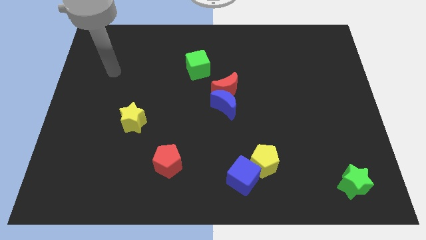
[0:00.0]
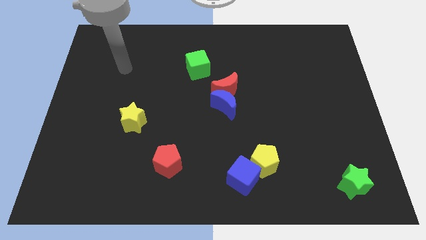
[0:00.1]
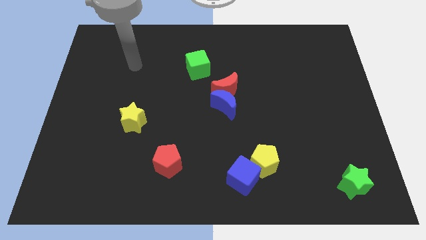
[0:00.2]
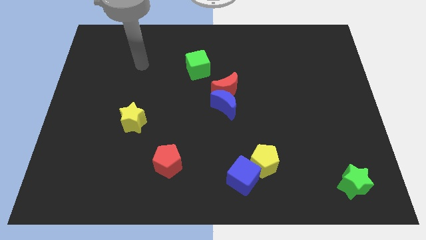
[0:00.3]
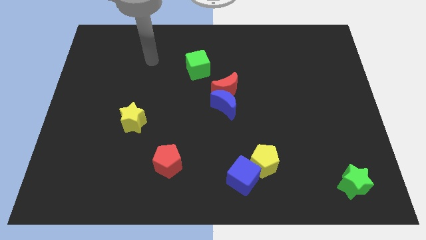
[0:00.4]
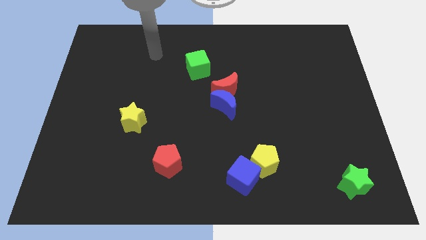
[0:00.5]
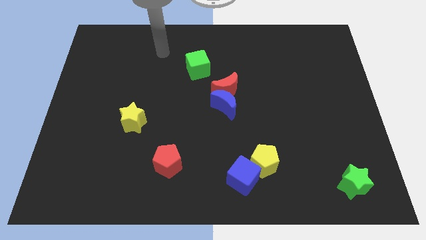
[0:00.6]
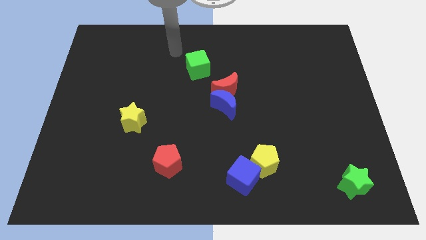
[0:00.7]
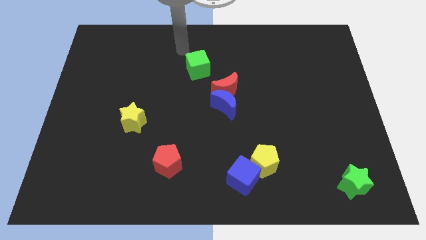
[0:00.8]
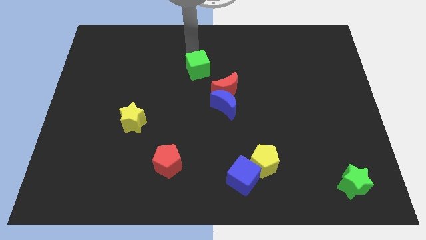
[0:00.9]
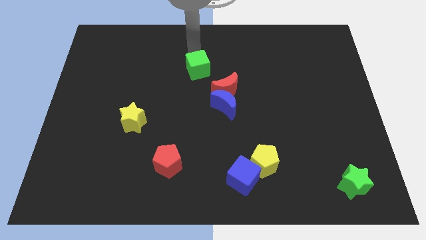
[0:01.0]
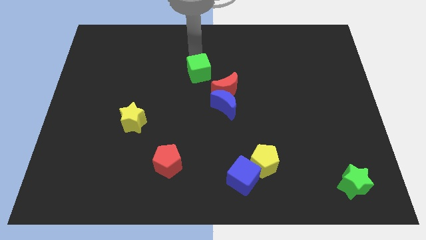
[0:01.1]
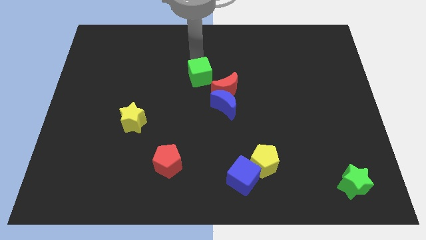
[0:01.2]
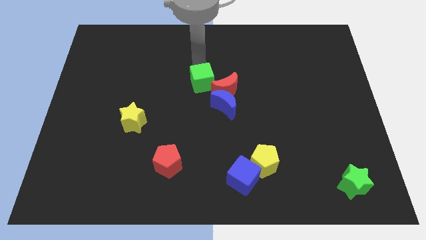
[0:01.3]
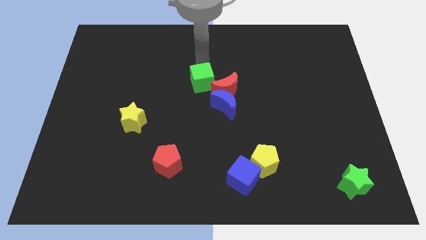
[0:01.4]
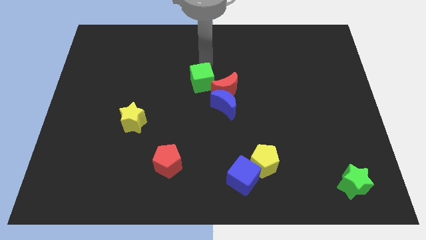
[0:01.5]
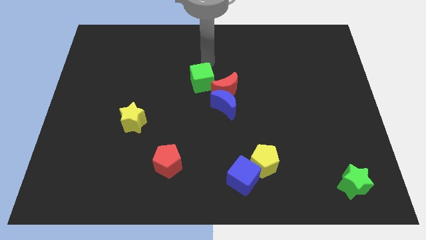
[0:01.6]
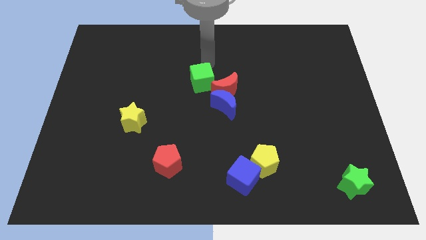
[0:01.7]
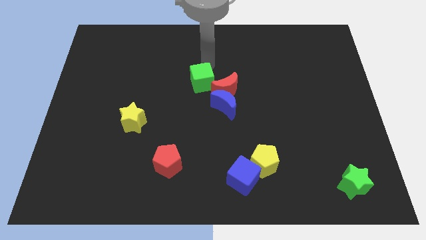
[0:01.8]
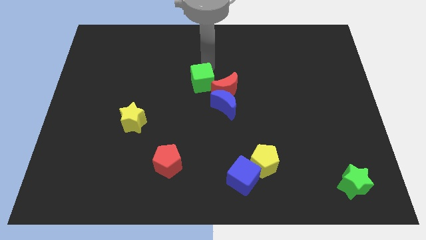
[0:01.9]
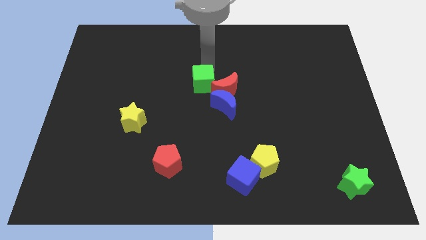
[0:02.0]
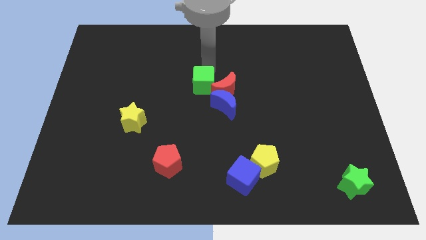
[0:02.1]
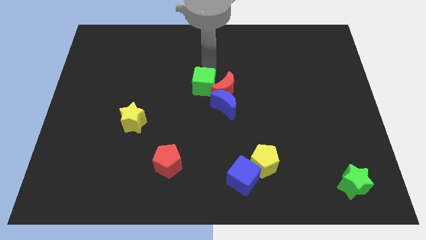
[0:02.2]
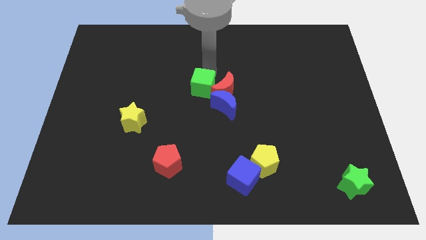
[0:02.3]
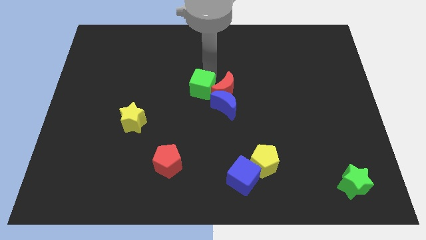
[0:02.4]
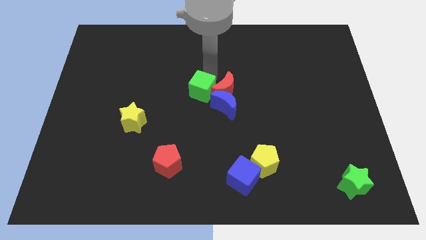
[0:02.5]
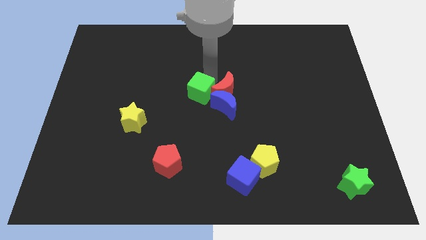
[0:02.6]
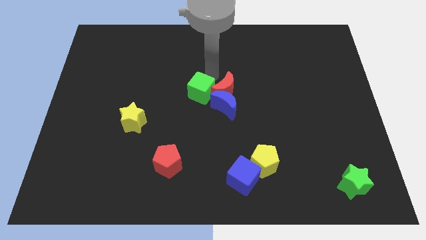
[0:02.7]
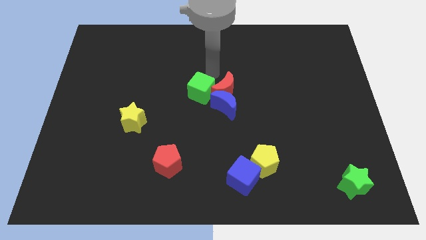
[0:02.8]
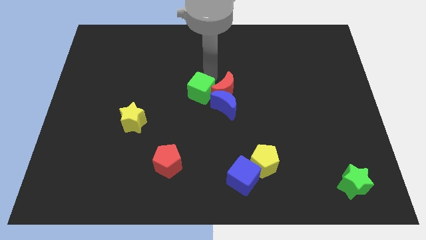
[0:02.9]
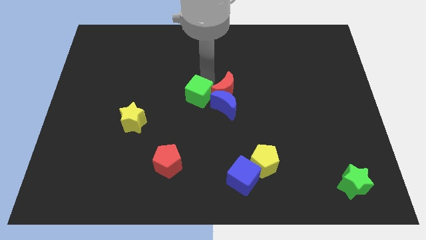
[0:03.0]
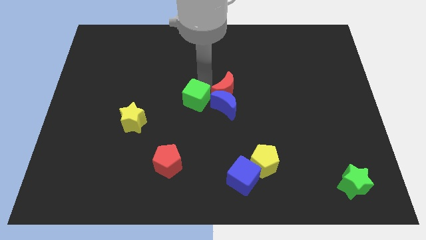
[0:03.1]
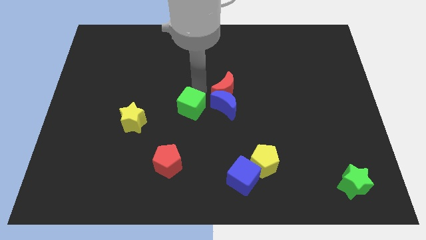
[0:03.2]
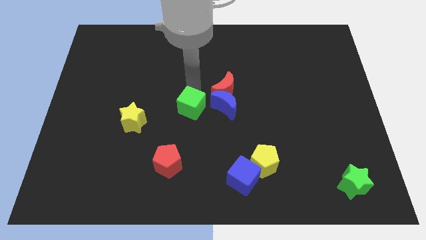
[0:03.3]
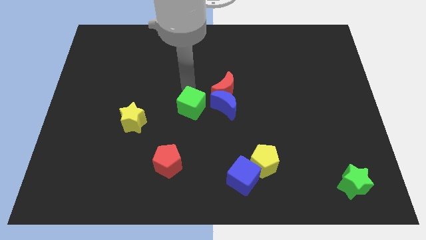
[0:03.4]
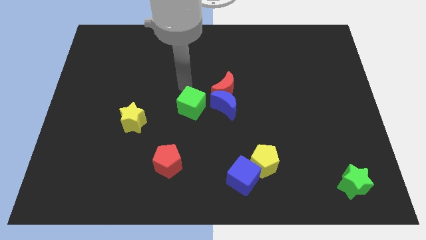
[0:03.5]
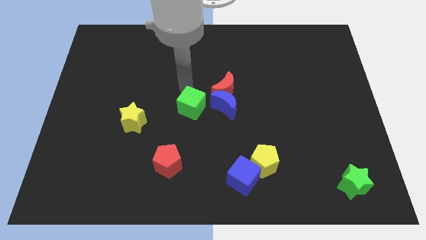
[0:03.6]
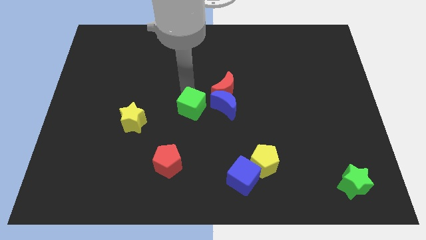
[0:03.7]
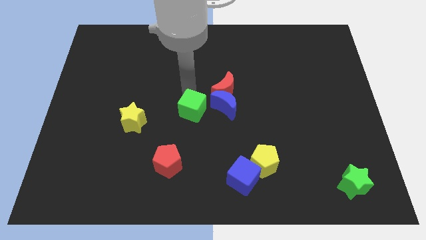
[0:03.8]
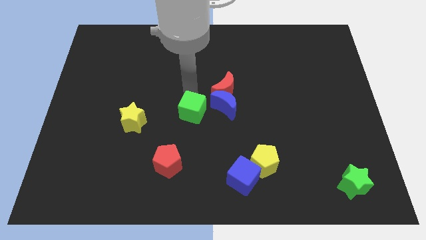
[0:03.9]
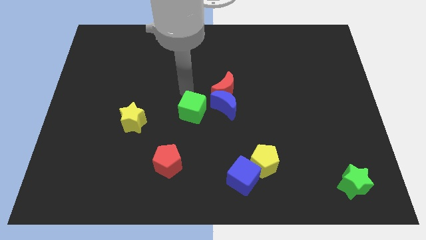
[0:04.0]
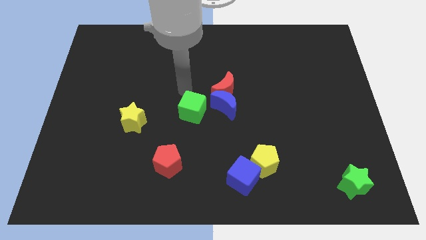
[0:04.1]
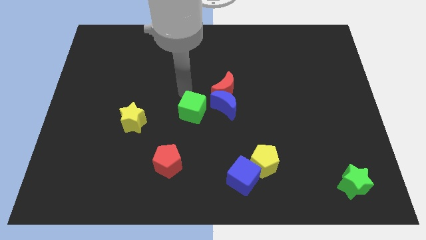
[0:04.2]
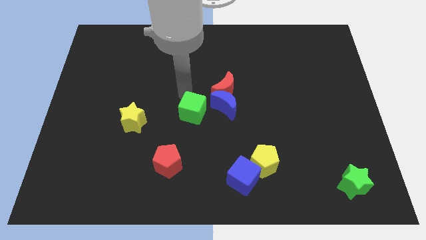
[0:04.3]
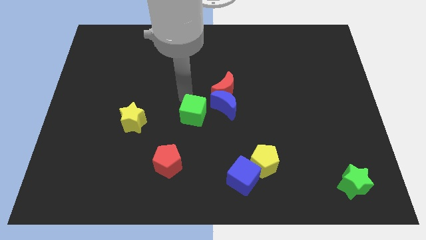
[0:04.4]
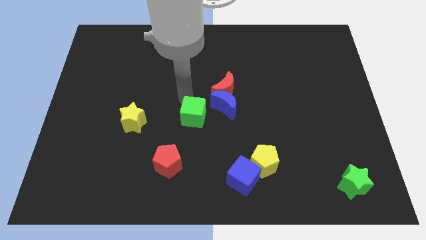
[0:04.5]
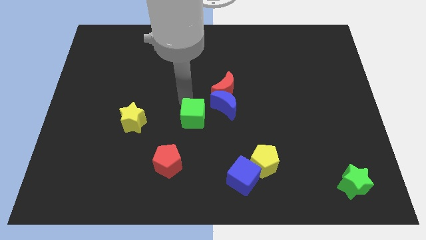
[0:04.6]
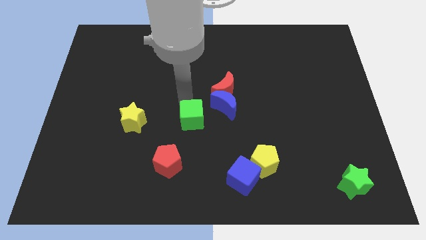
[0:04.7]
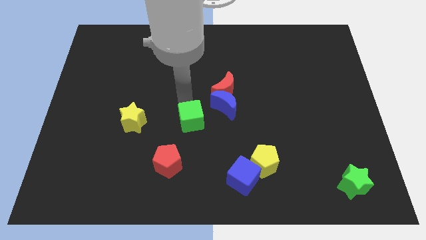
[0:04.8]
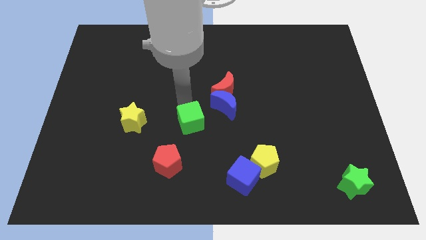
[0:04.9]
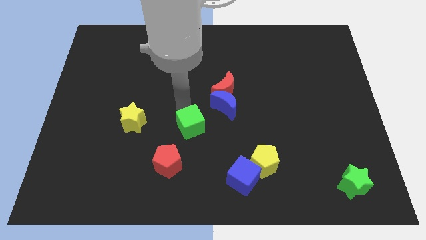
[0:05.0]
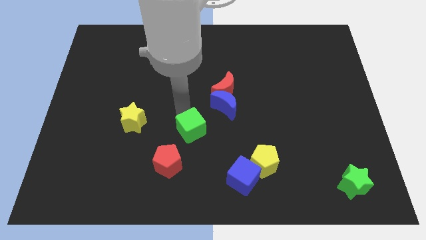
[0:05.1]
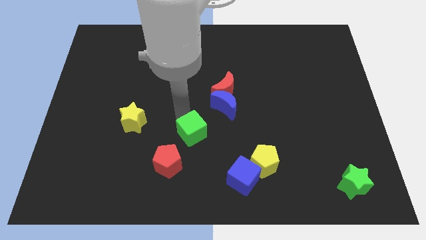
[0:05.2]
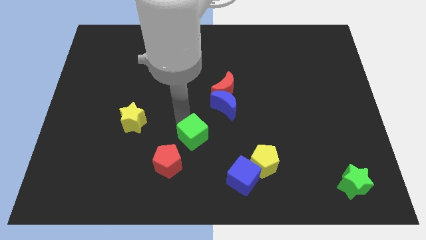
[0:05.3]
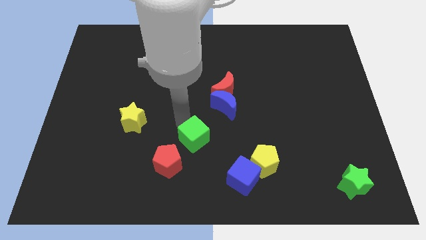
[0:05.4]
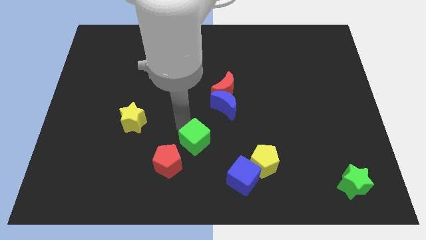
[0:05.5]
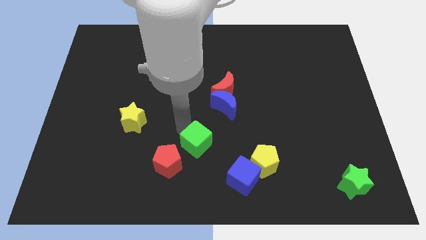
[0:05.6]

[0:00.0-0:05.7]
put the green cube to the top left side of the blue cube

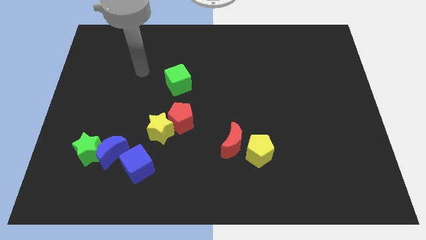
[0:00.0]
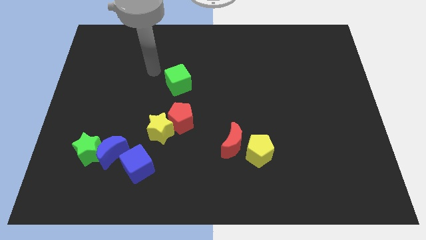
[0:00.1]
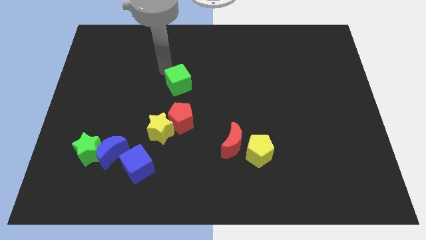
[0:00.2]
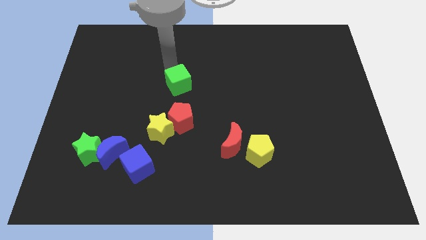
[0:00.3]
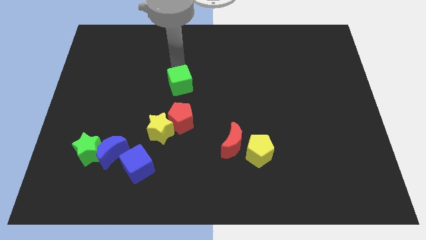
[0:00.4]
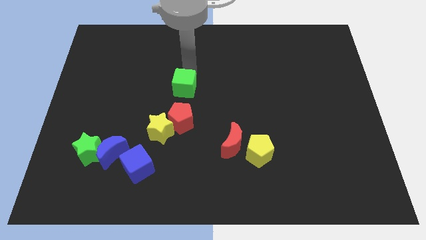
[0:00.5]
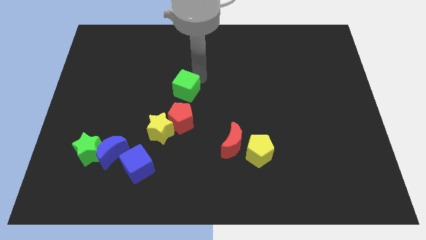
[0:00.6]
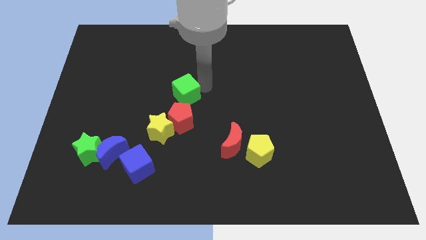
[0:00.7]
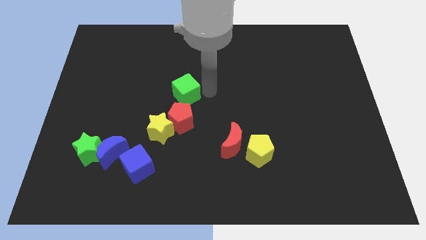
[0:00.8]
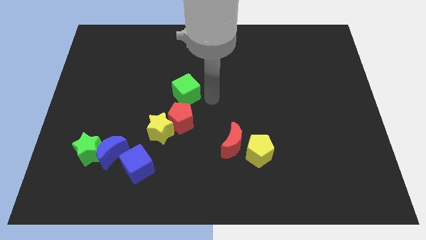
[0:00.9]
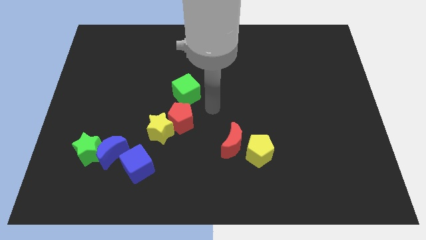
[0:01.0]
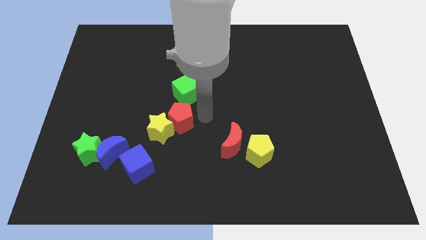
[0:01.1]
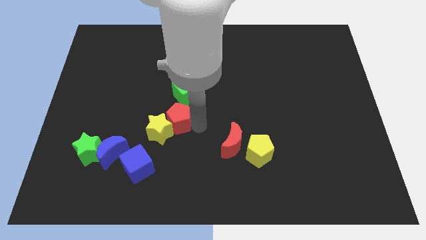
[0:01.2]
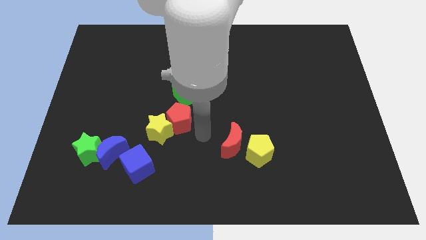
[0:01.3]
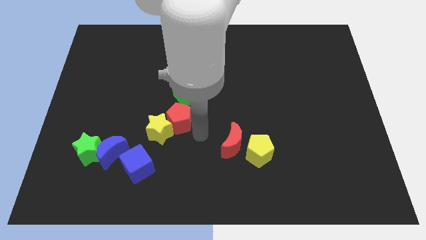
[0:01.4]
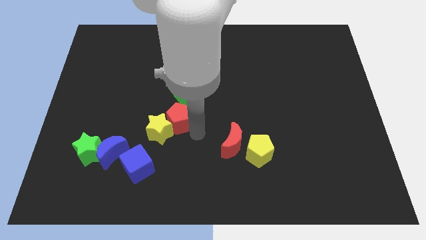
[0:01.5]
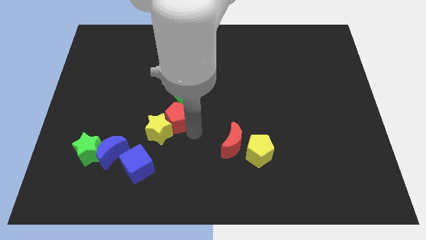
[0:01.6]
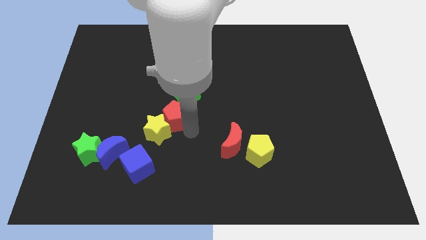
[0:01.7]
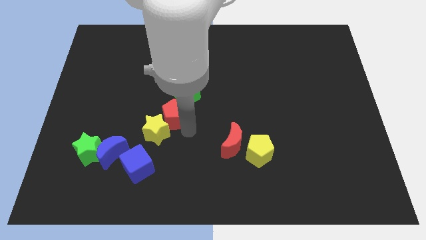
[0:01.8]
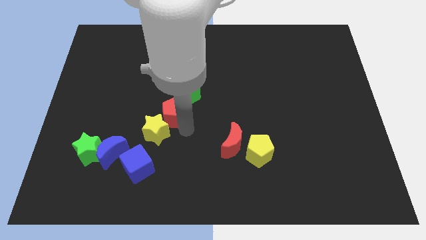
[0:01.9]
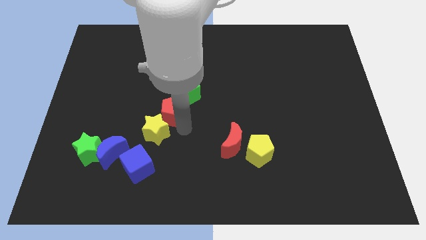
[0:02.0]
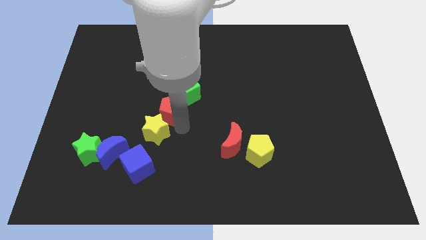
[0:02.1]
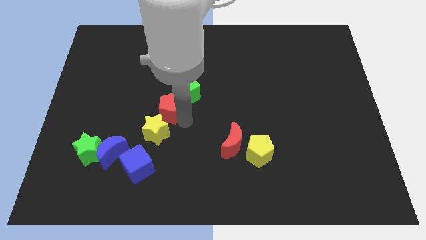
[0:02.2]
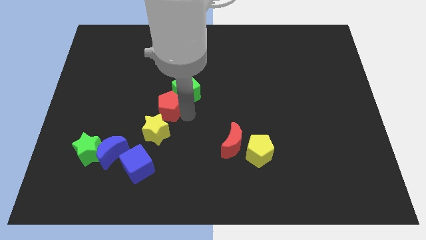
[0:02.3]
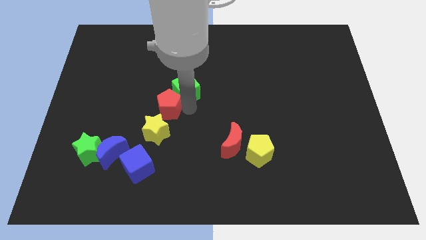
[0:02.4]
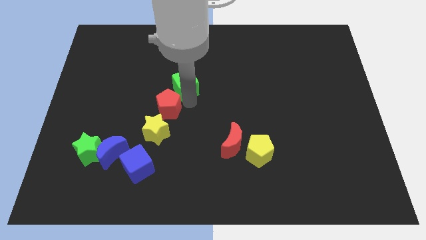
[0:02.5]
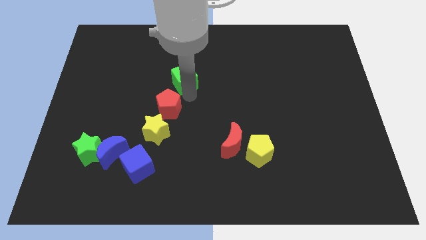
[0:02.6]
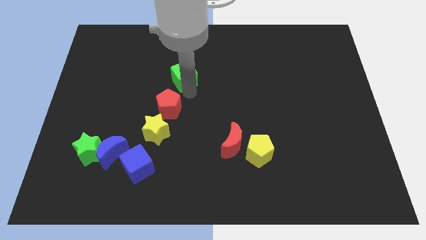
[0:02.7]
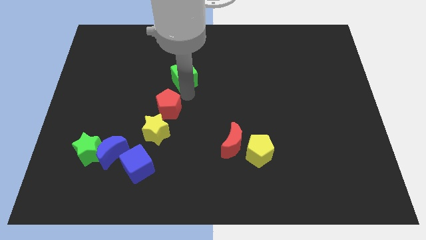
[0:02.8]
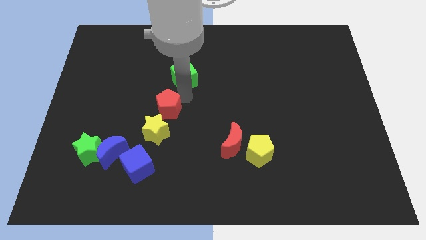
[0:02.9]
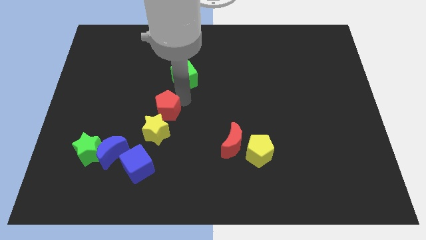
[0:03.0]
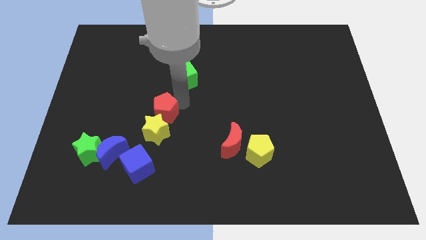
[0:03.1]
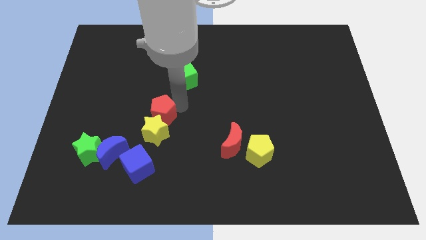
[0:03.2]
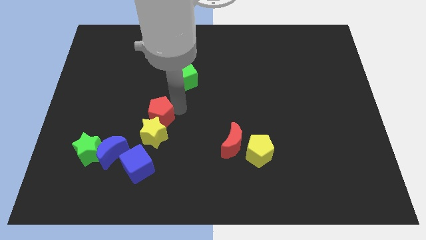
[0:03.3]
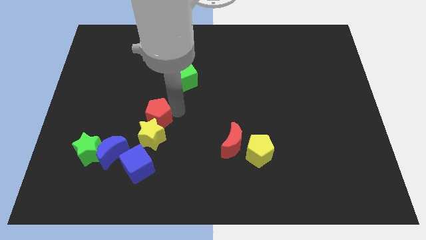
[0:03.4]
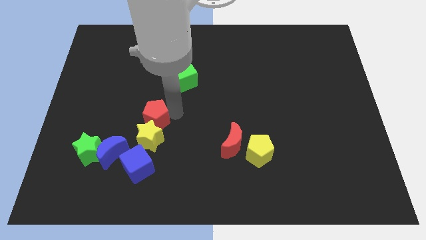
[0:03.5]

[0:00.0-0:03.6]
move the red pentagon diagonally up and to the right of the blue moon
